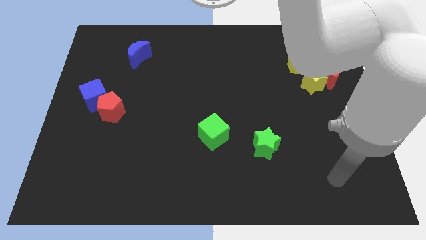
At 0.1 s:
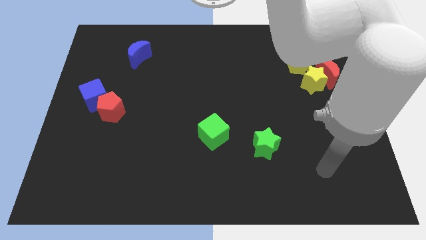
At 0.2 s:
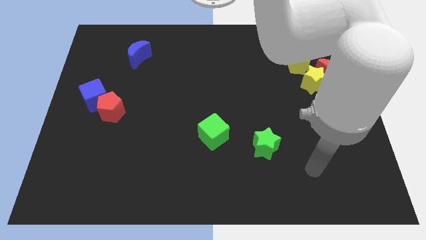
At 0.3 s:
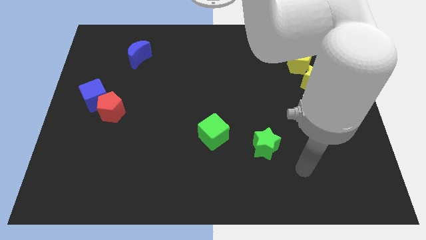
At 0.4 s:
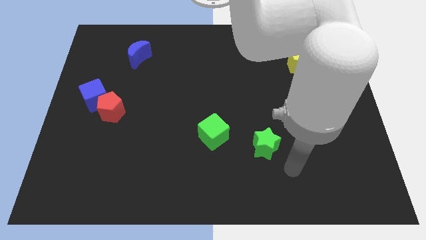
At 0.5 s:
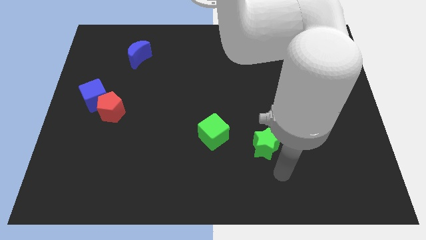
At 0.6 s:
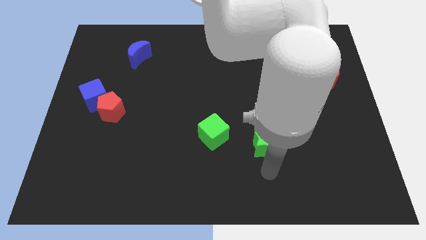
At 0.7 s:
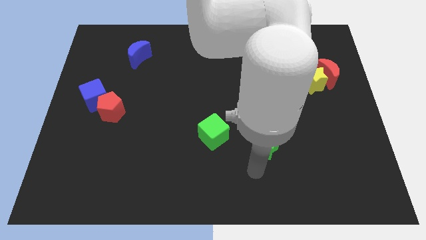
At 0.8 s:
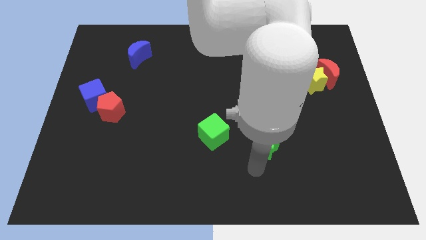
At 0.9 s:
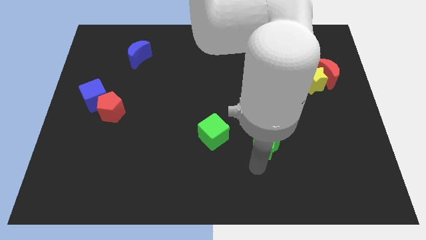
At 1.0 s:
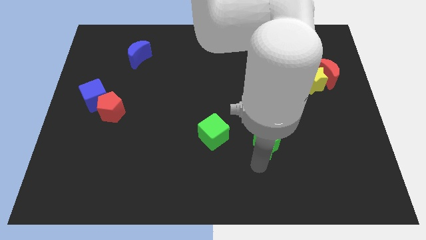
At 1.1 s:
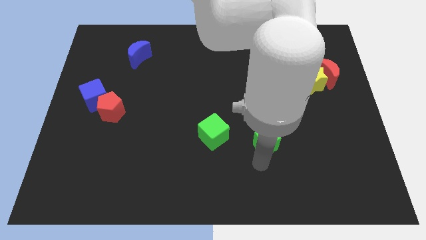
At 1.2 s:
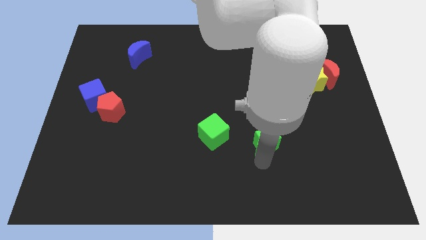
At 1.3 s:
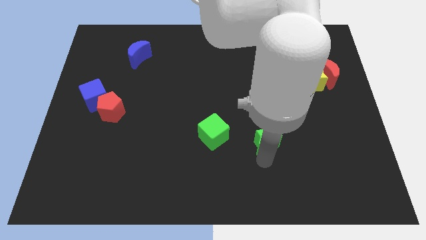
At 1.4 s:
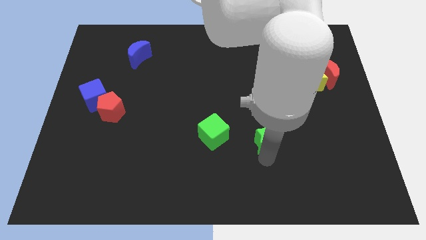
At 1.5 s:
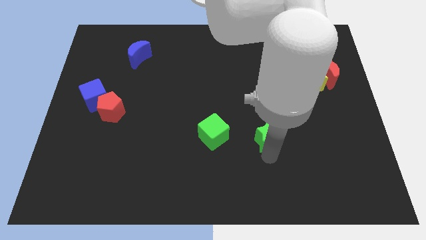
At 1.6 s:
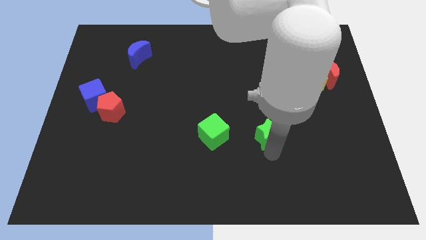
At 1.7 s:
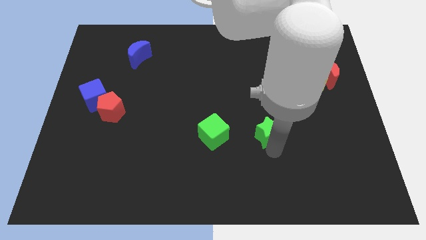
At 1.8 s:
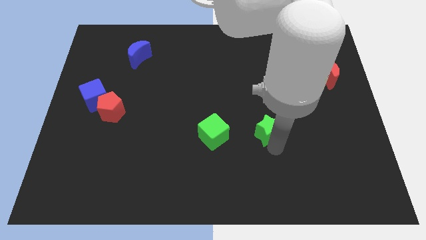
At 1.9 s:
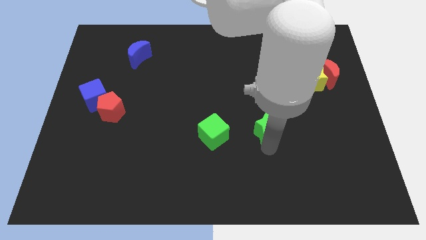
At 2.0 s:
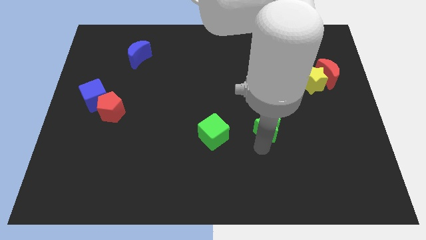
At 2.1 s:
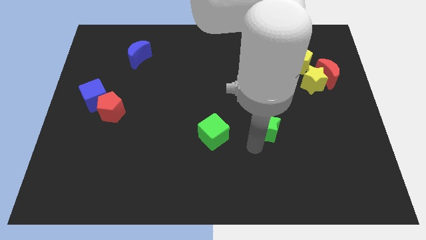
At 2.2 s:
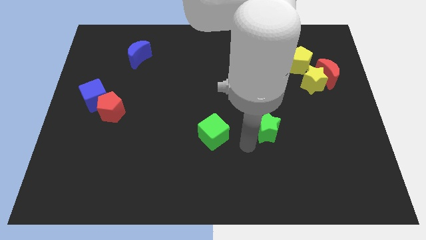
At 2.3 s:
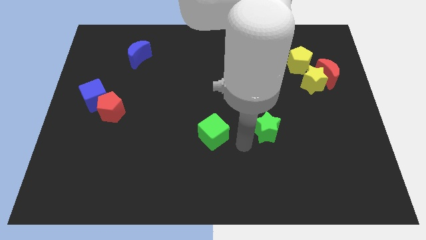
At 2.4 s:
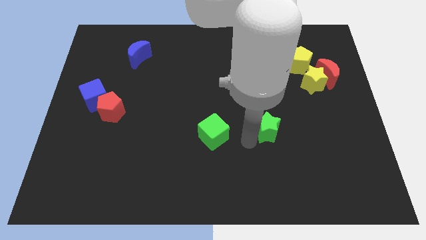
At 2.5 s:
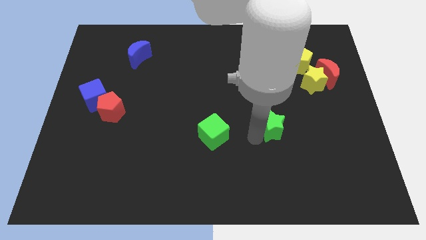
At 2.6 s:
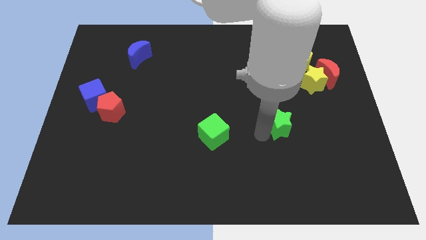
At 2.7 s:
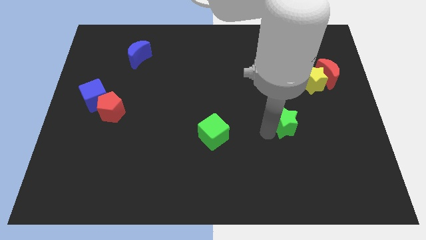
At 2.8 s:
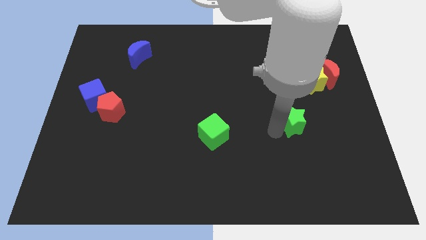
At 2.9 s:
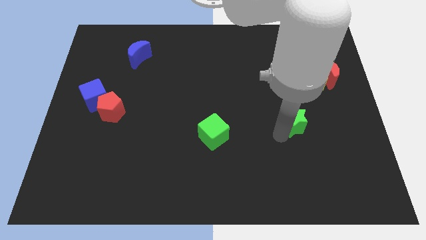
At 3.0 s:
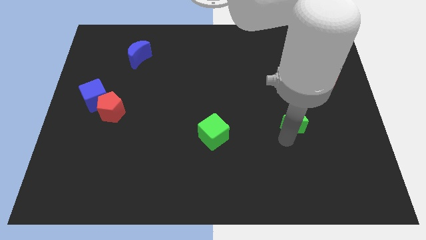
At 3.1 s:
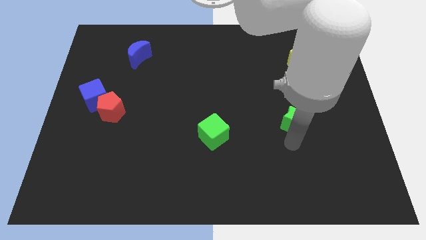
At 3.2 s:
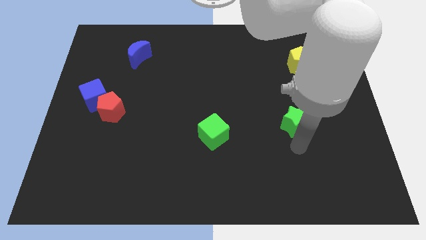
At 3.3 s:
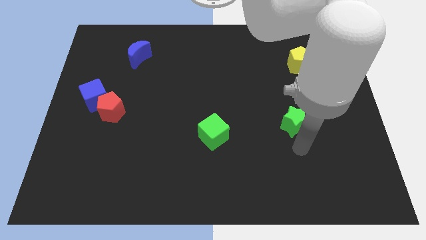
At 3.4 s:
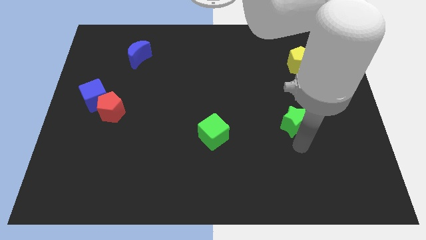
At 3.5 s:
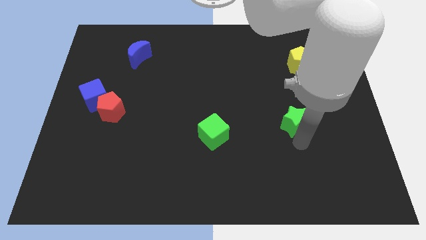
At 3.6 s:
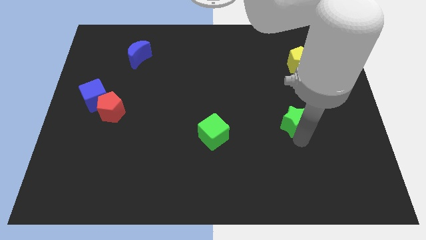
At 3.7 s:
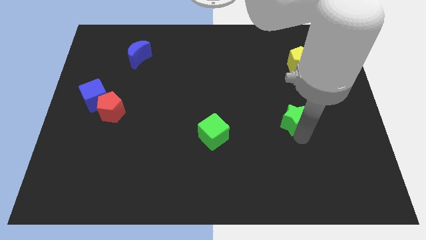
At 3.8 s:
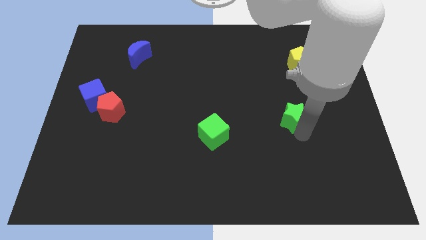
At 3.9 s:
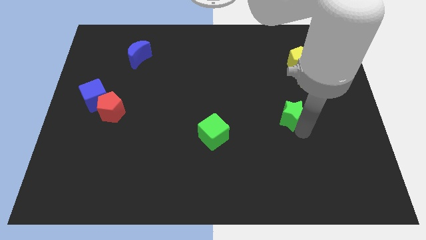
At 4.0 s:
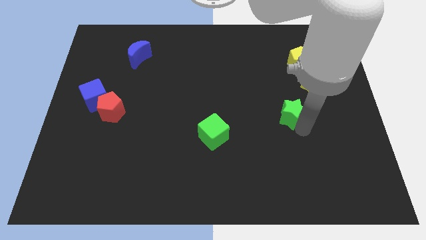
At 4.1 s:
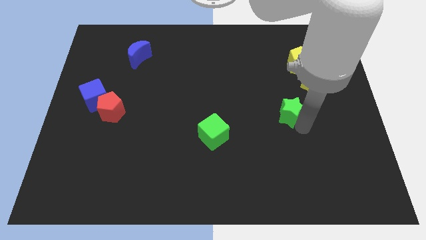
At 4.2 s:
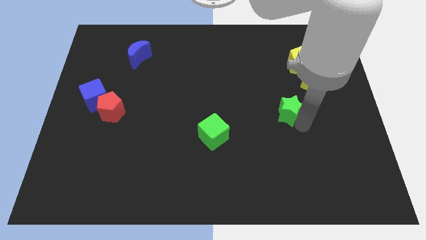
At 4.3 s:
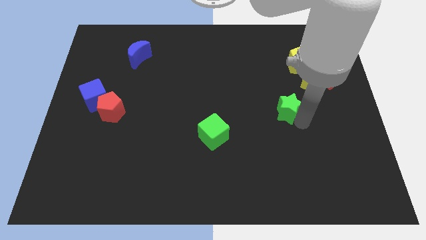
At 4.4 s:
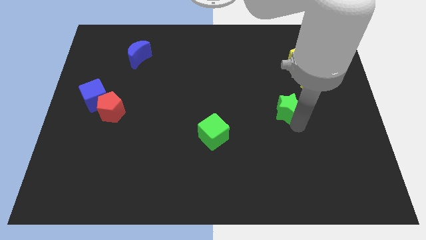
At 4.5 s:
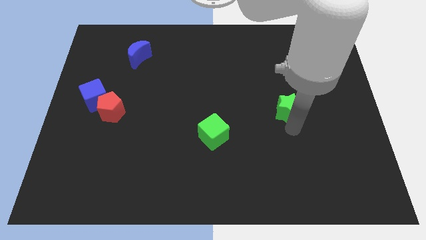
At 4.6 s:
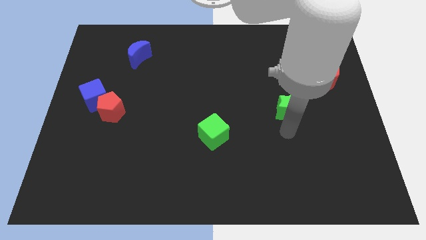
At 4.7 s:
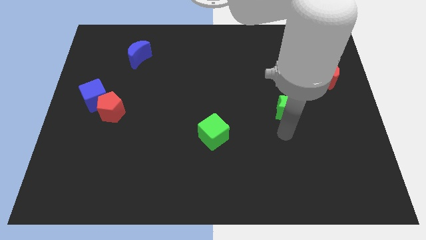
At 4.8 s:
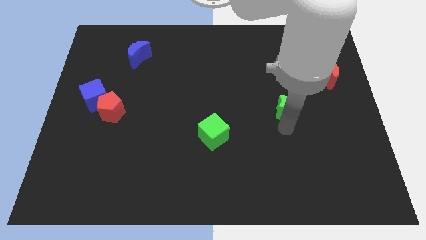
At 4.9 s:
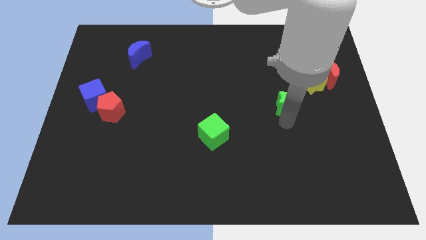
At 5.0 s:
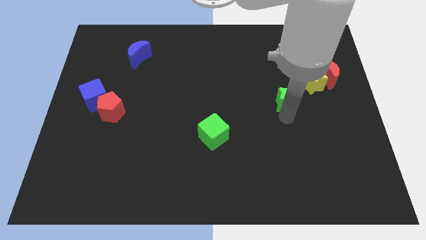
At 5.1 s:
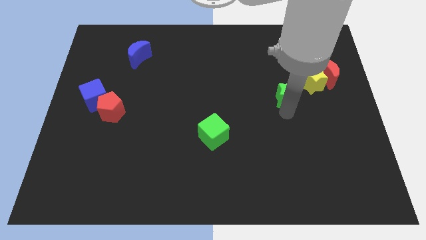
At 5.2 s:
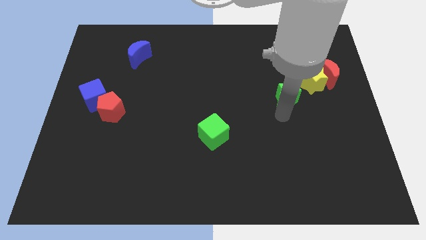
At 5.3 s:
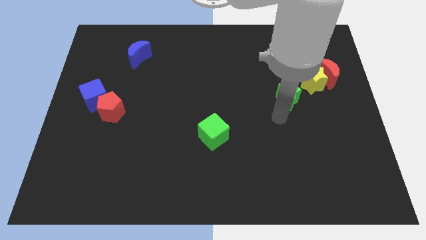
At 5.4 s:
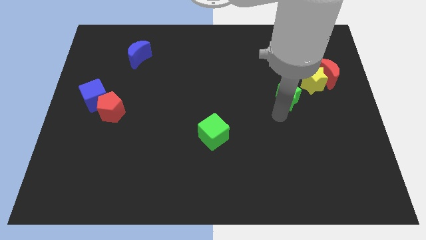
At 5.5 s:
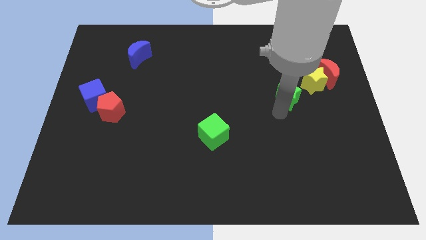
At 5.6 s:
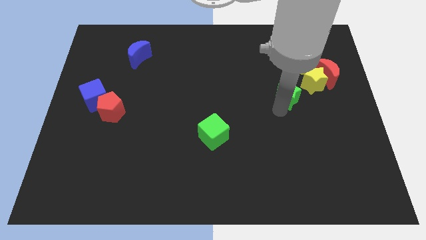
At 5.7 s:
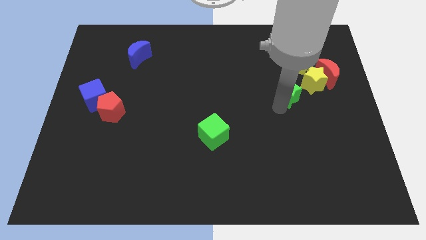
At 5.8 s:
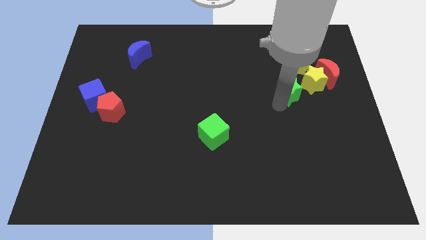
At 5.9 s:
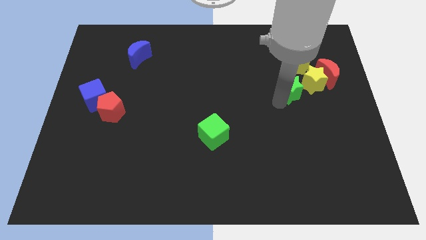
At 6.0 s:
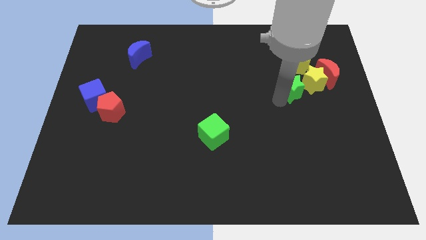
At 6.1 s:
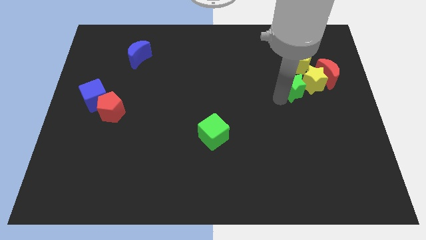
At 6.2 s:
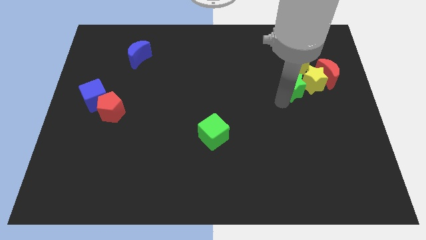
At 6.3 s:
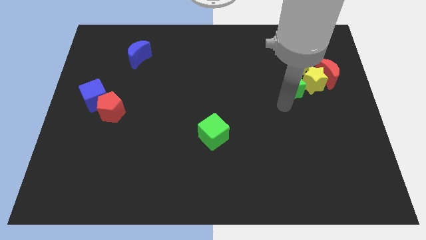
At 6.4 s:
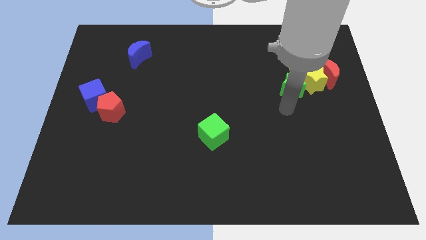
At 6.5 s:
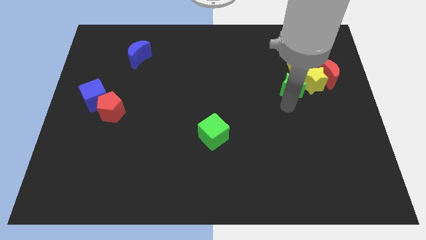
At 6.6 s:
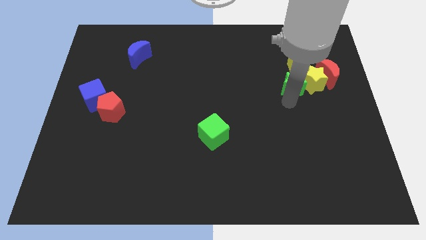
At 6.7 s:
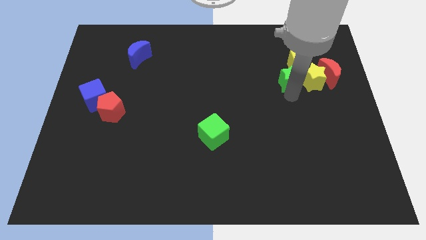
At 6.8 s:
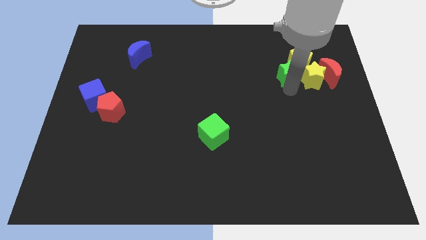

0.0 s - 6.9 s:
put the green star towards the yellow pentagon

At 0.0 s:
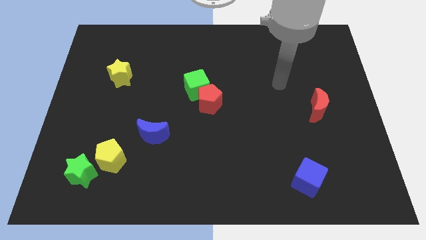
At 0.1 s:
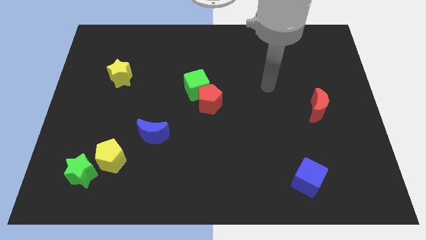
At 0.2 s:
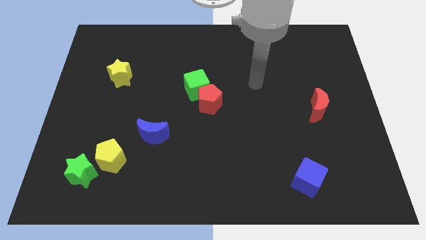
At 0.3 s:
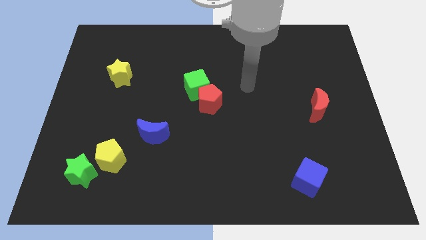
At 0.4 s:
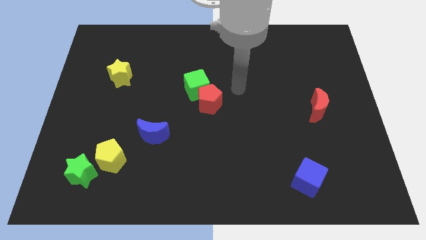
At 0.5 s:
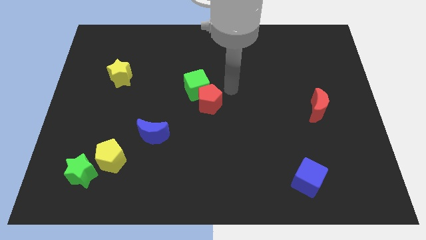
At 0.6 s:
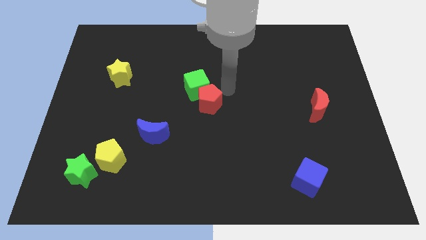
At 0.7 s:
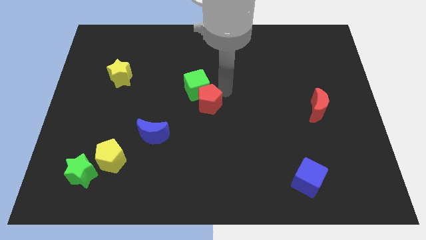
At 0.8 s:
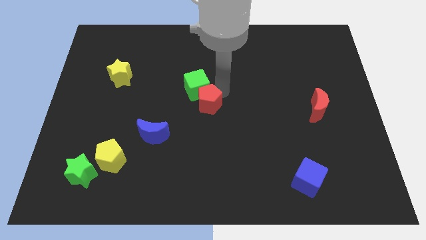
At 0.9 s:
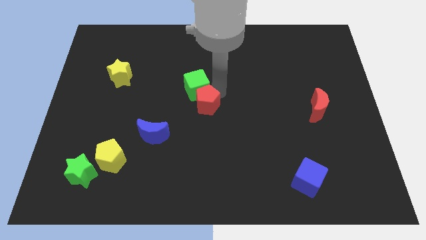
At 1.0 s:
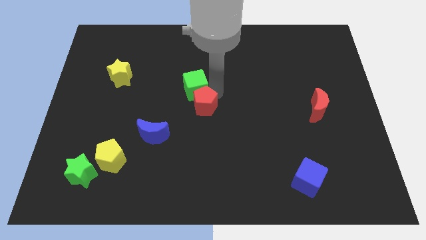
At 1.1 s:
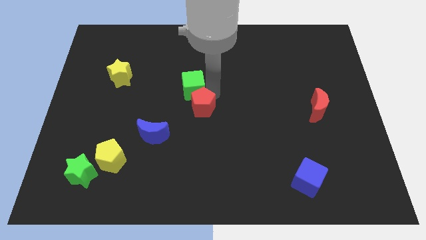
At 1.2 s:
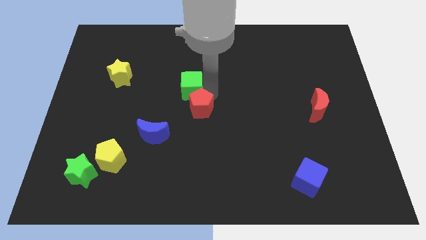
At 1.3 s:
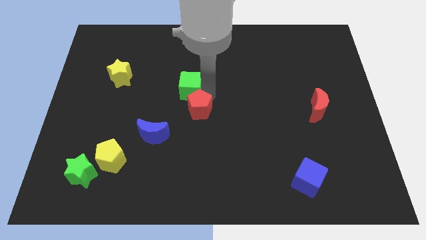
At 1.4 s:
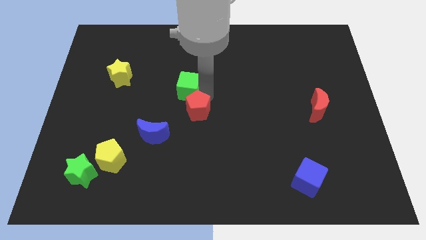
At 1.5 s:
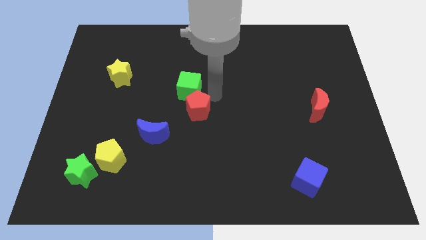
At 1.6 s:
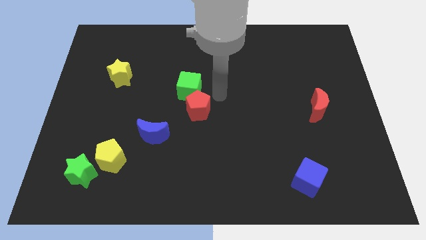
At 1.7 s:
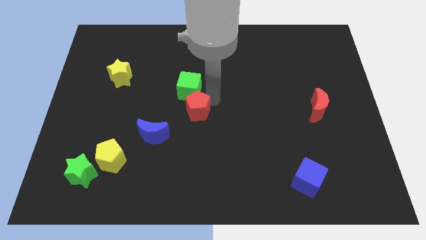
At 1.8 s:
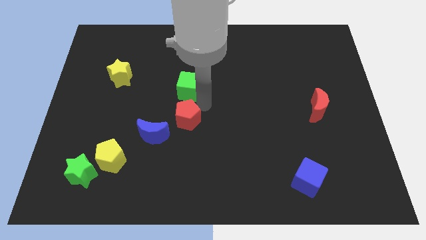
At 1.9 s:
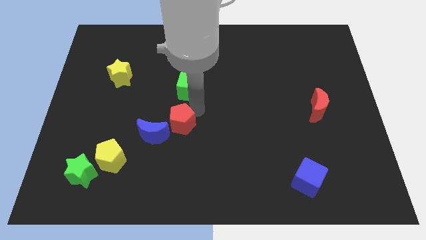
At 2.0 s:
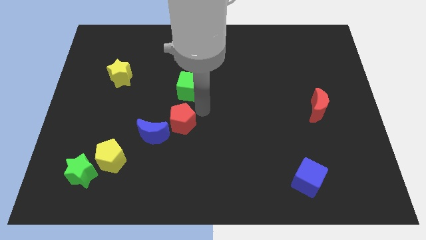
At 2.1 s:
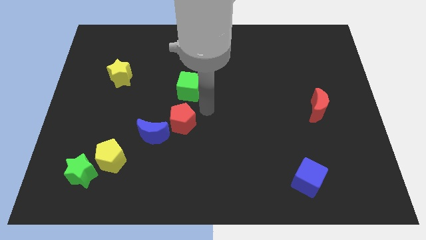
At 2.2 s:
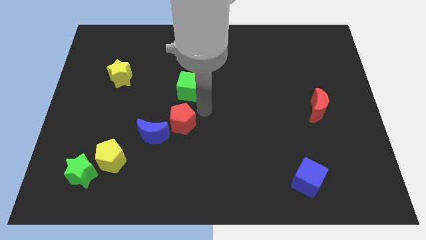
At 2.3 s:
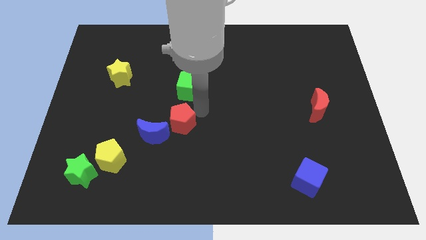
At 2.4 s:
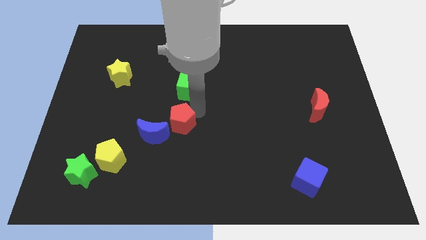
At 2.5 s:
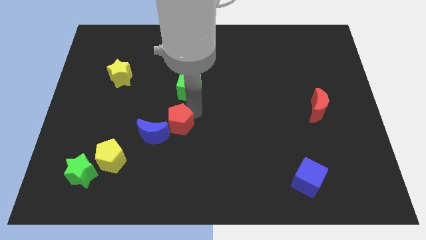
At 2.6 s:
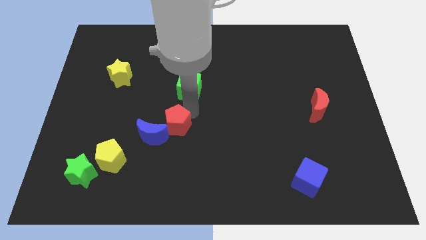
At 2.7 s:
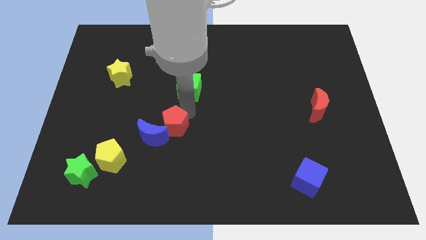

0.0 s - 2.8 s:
push the red pentagon to the blue moon
